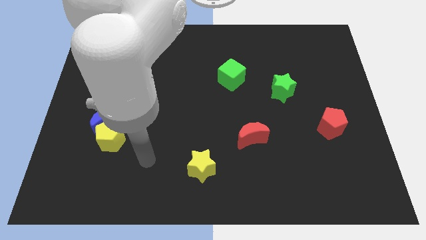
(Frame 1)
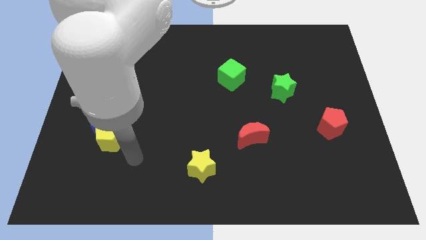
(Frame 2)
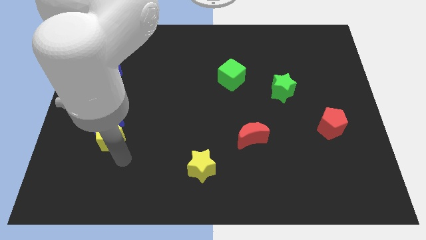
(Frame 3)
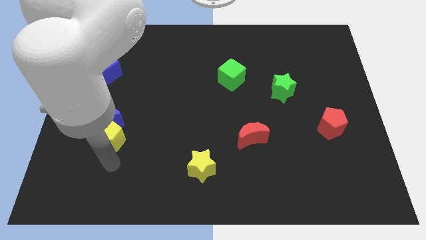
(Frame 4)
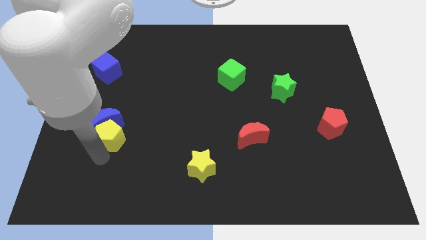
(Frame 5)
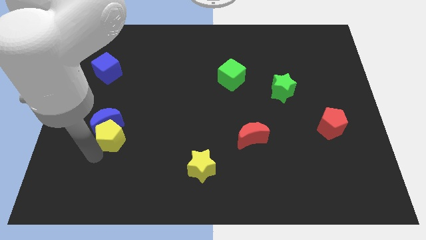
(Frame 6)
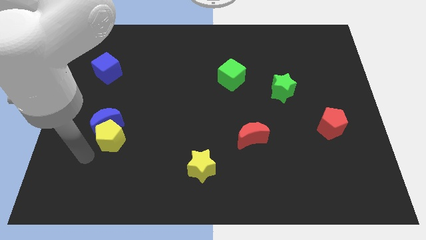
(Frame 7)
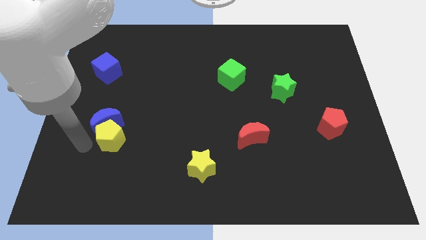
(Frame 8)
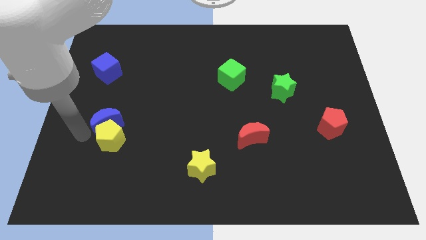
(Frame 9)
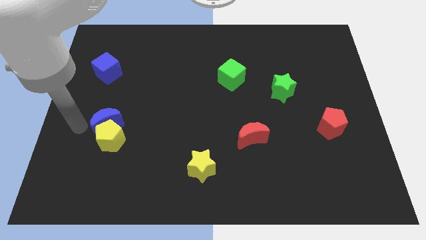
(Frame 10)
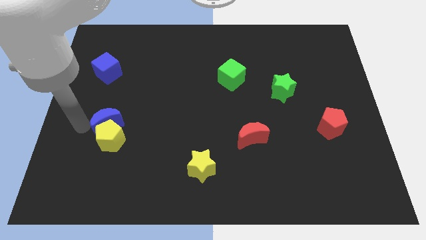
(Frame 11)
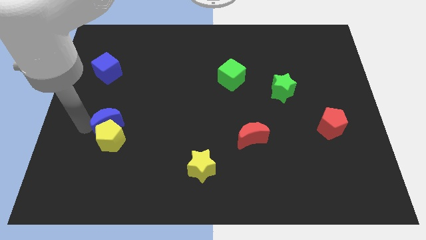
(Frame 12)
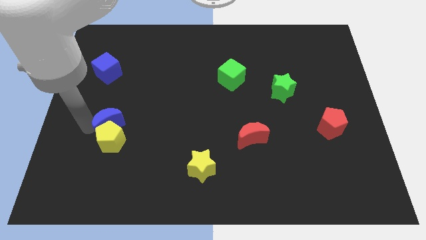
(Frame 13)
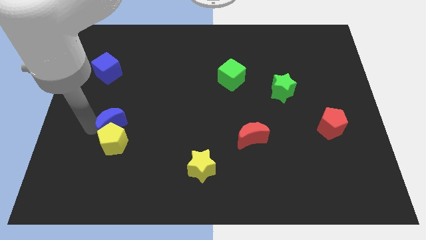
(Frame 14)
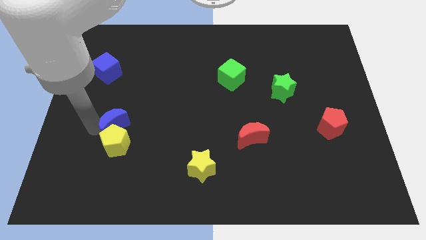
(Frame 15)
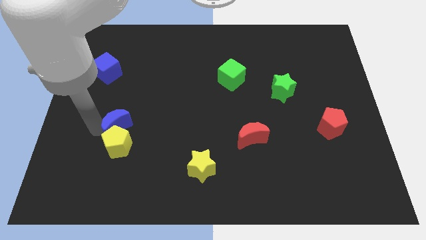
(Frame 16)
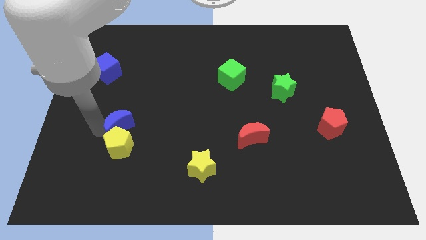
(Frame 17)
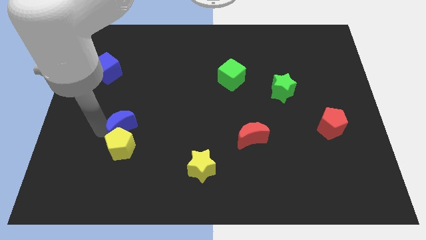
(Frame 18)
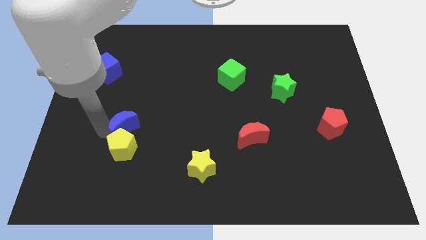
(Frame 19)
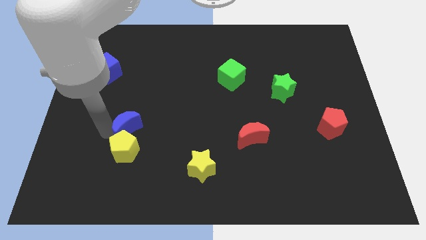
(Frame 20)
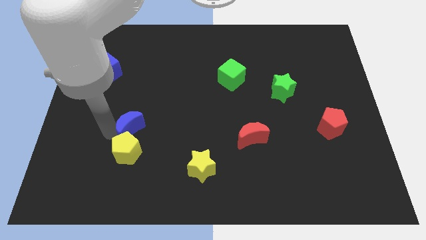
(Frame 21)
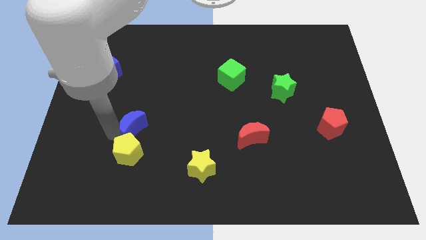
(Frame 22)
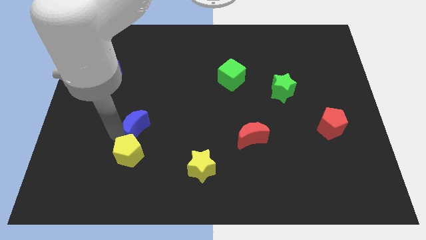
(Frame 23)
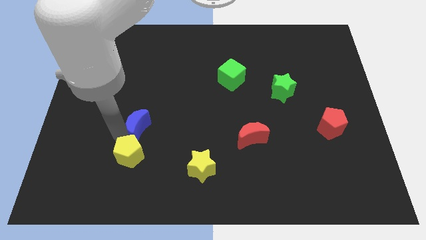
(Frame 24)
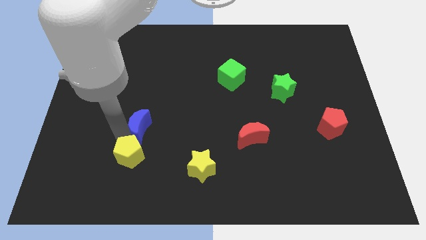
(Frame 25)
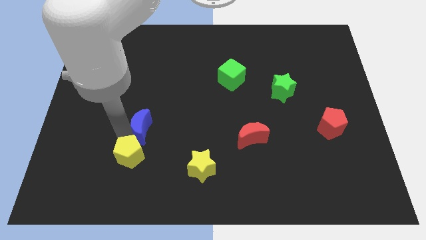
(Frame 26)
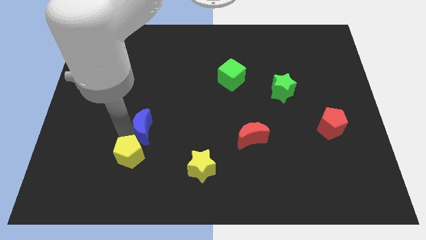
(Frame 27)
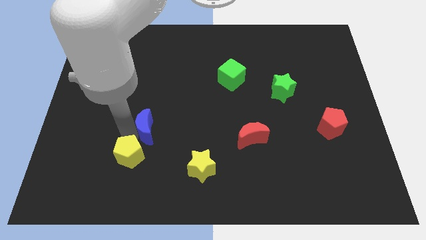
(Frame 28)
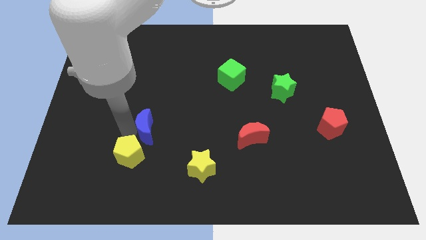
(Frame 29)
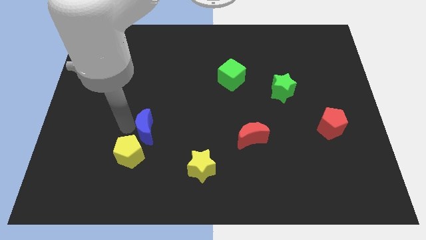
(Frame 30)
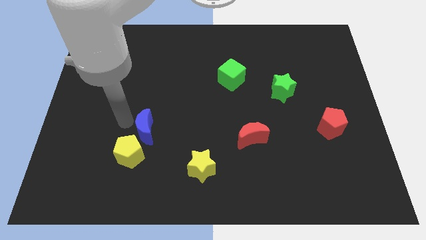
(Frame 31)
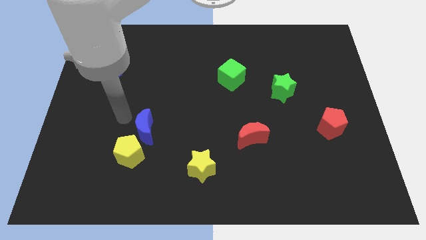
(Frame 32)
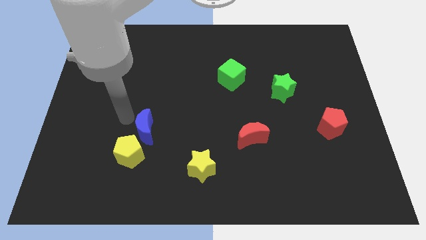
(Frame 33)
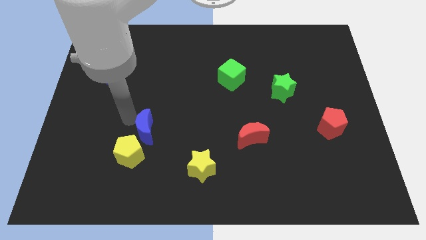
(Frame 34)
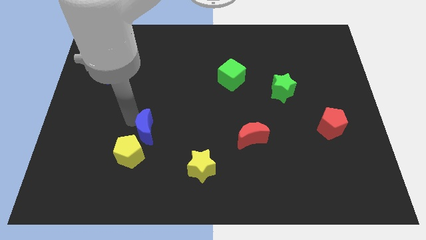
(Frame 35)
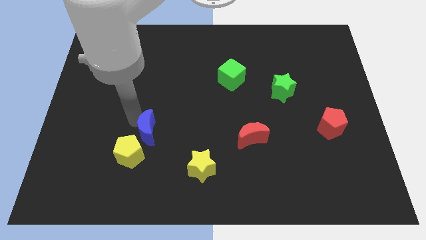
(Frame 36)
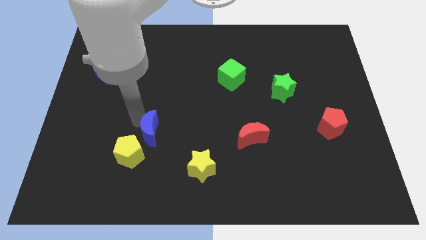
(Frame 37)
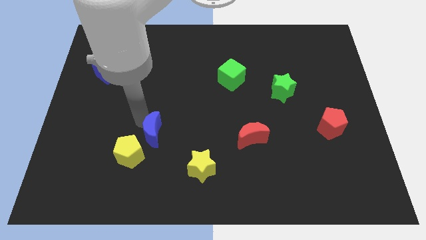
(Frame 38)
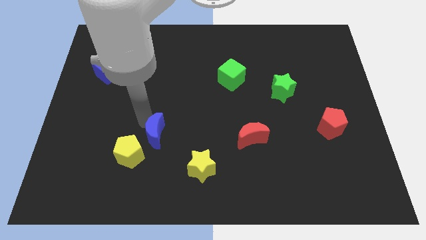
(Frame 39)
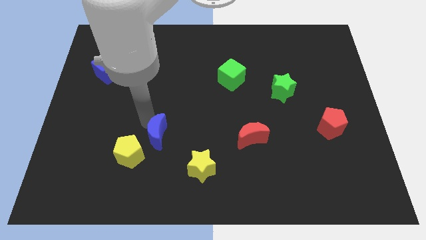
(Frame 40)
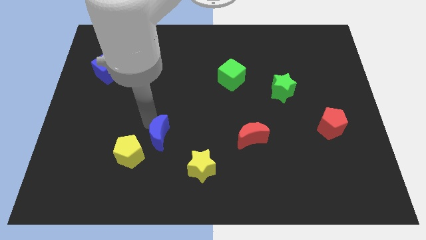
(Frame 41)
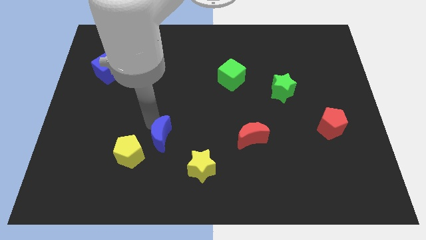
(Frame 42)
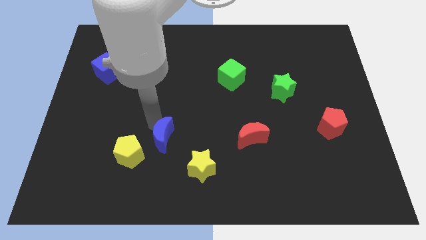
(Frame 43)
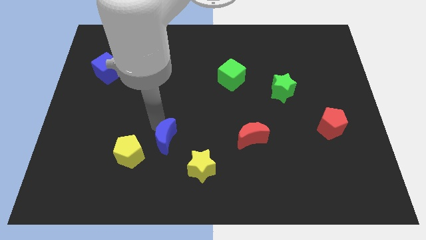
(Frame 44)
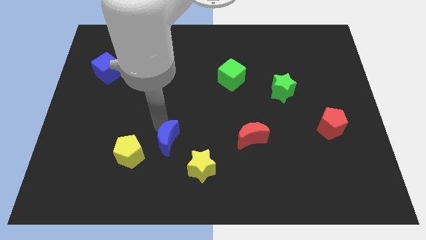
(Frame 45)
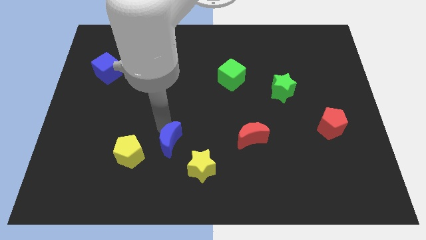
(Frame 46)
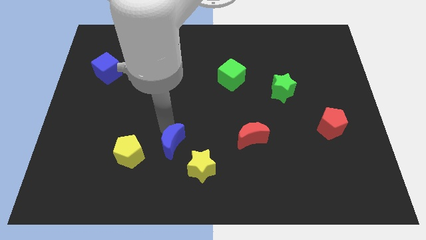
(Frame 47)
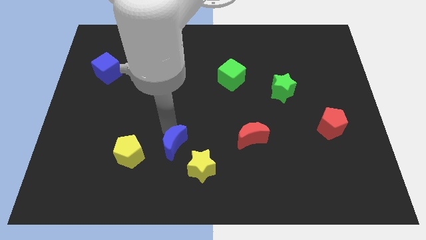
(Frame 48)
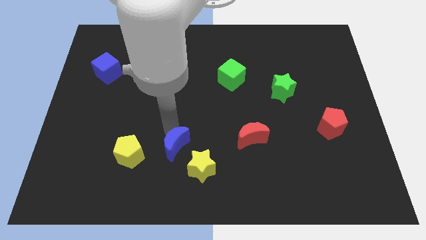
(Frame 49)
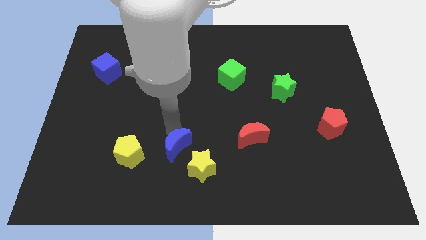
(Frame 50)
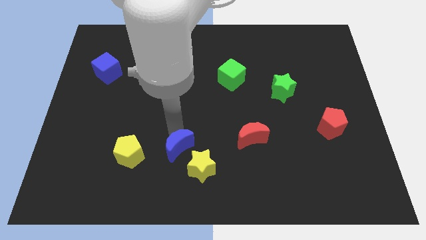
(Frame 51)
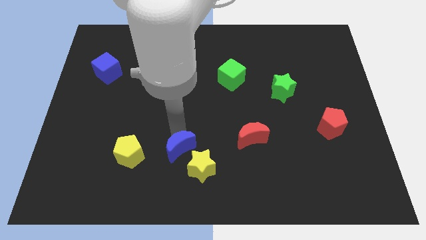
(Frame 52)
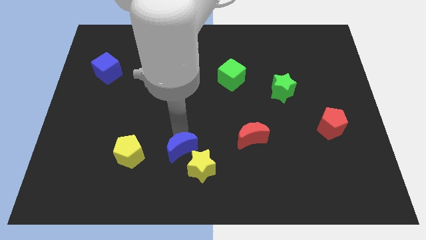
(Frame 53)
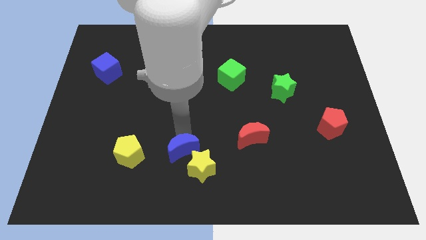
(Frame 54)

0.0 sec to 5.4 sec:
put the blue moon close to the yellow star

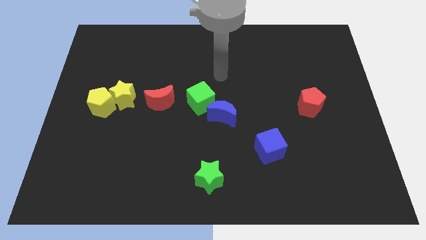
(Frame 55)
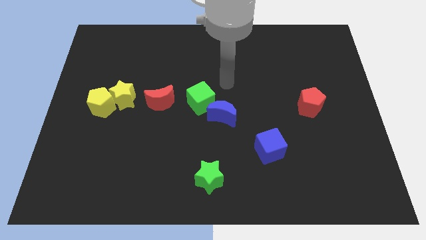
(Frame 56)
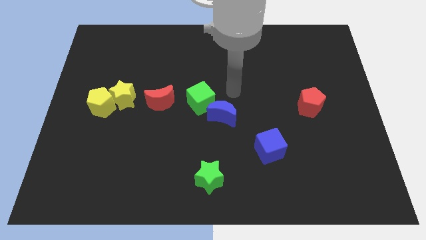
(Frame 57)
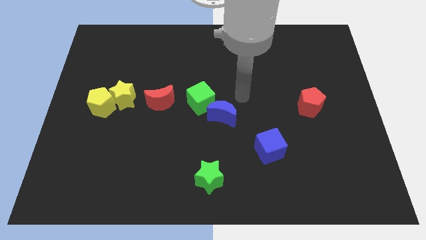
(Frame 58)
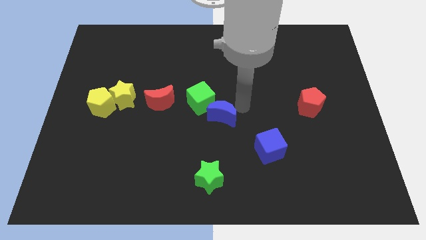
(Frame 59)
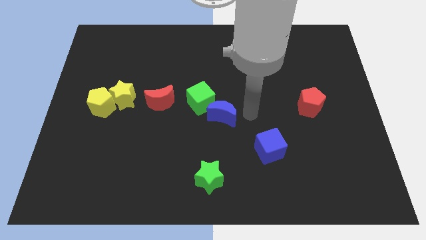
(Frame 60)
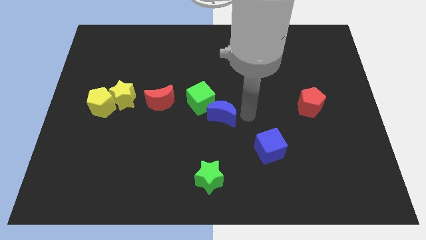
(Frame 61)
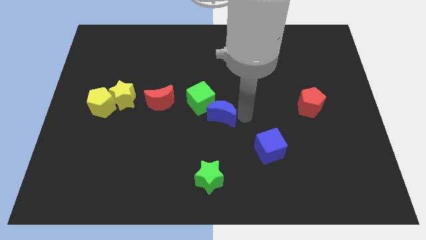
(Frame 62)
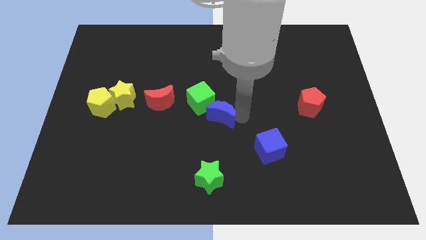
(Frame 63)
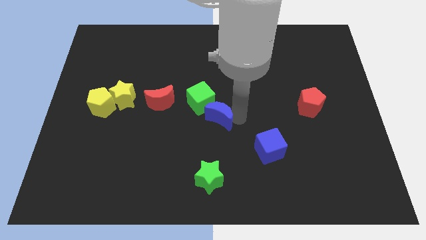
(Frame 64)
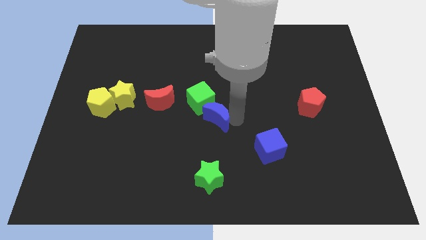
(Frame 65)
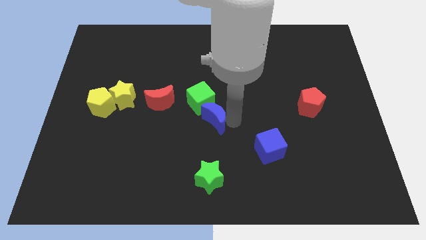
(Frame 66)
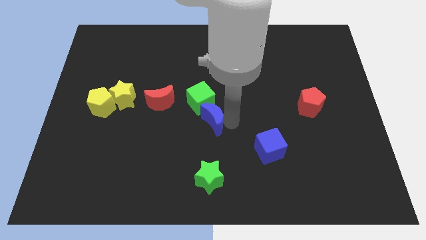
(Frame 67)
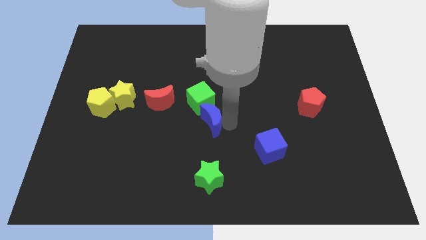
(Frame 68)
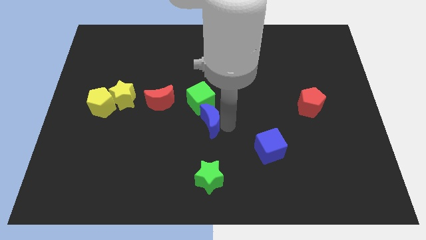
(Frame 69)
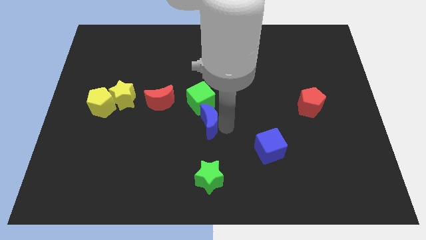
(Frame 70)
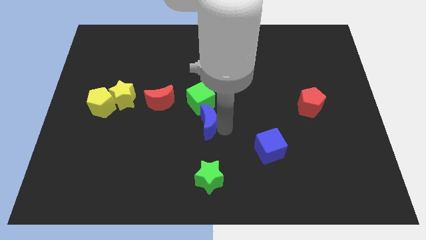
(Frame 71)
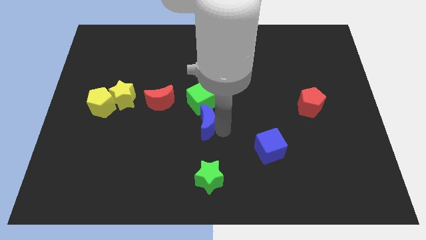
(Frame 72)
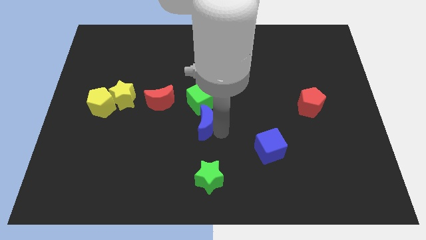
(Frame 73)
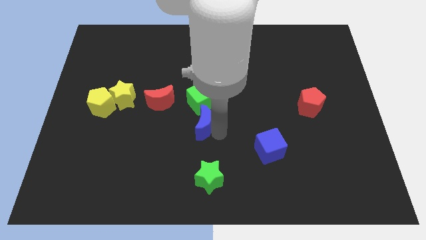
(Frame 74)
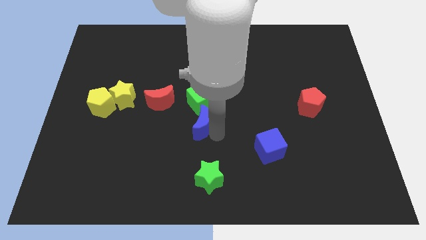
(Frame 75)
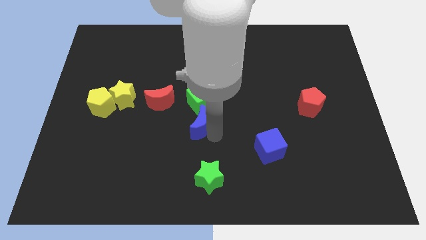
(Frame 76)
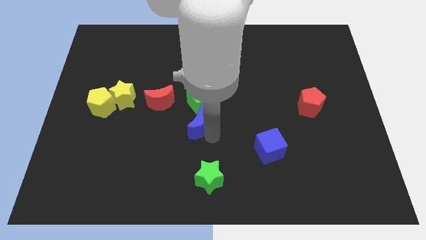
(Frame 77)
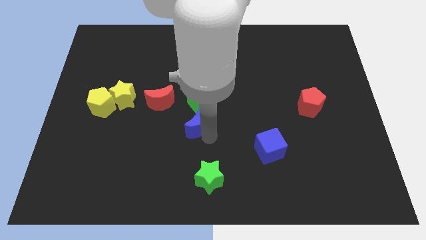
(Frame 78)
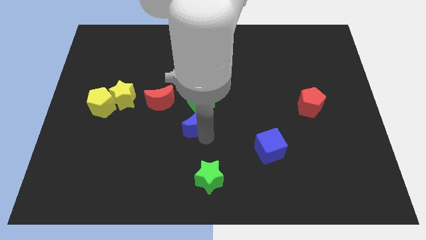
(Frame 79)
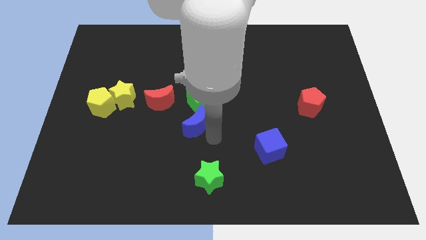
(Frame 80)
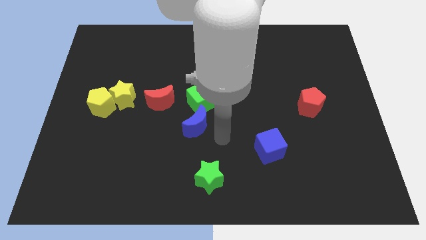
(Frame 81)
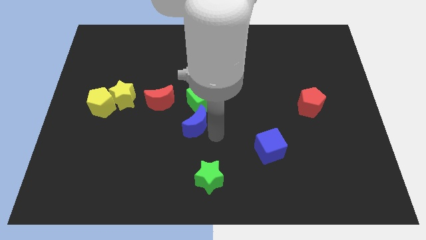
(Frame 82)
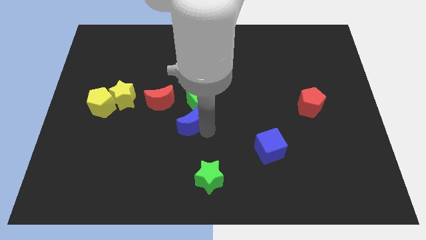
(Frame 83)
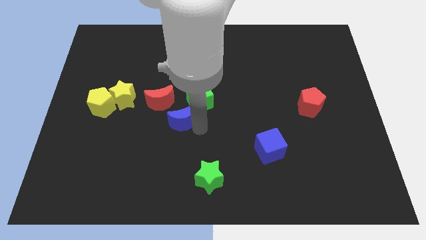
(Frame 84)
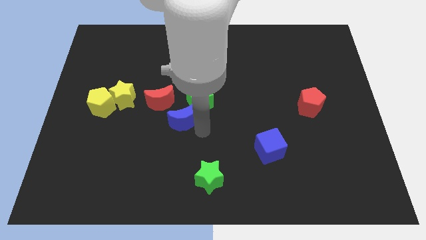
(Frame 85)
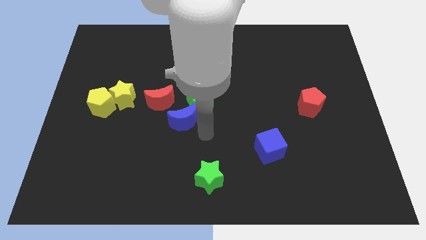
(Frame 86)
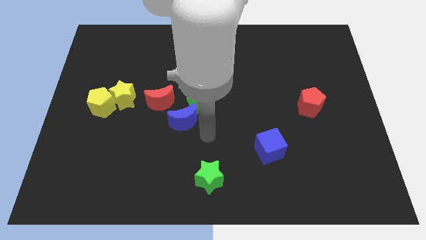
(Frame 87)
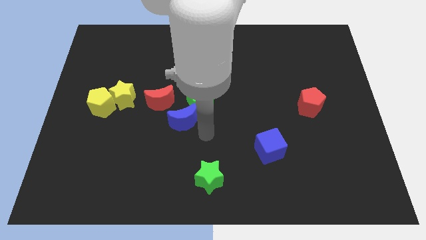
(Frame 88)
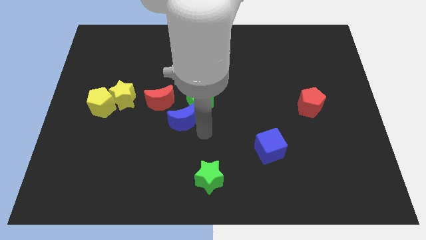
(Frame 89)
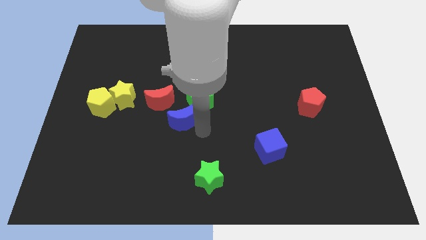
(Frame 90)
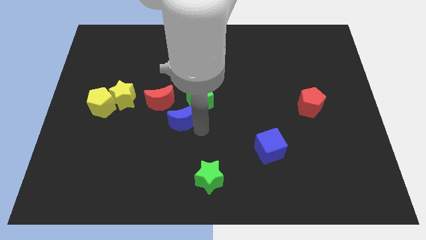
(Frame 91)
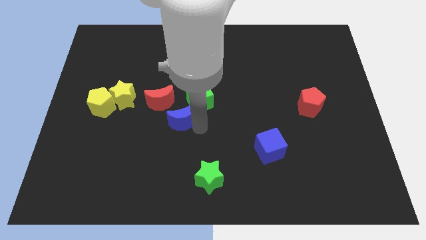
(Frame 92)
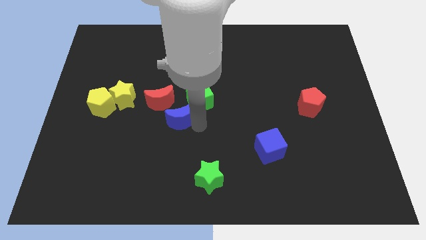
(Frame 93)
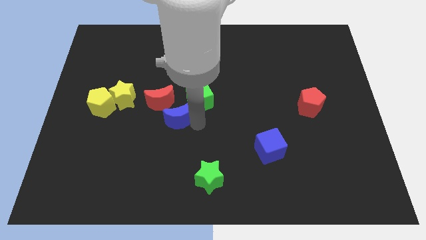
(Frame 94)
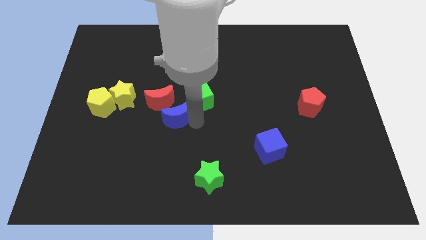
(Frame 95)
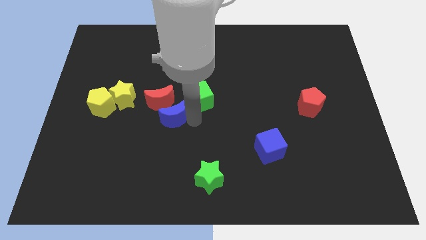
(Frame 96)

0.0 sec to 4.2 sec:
push the blue moon towards the red moon
